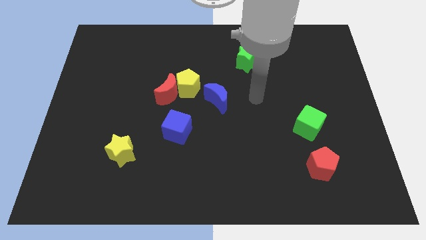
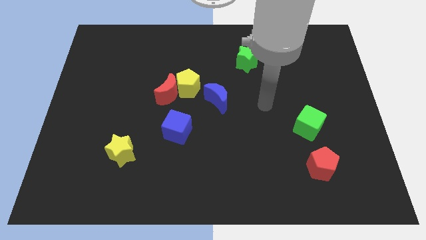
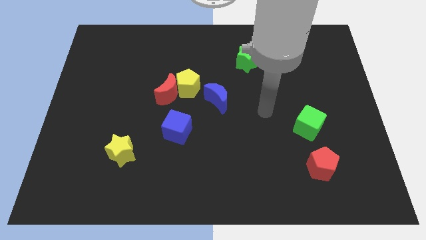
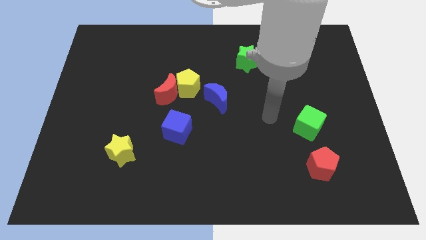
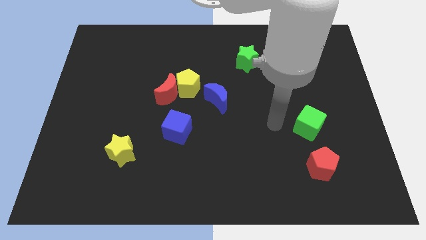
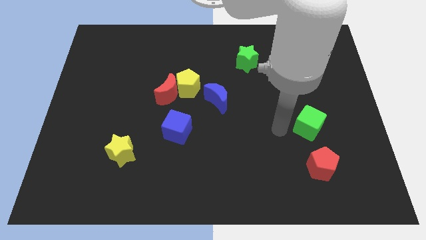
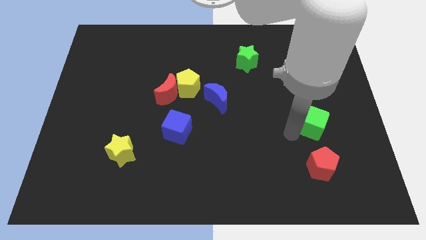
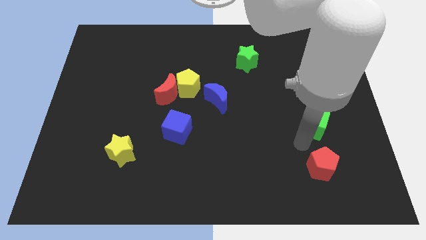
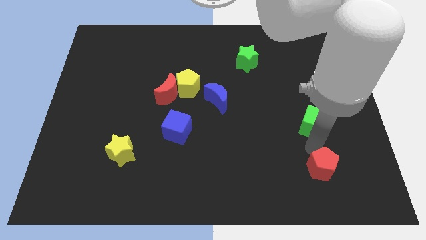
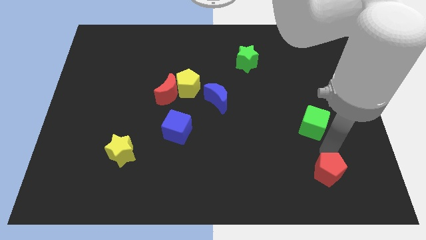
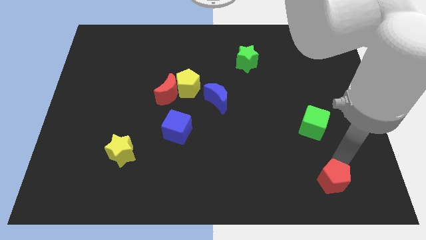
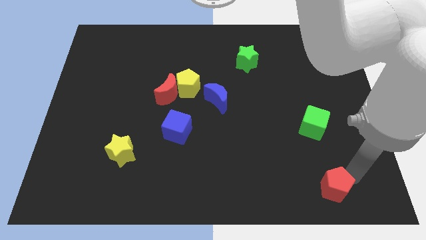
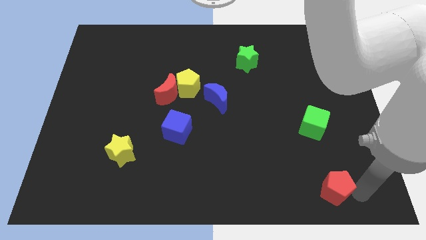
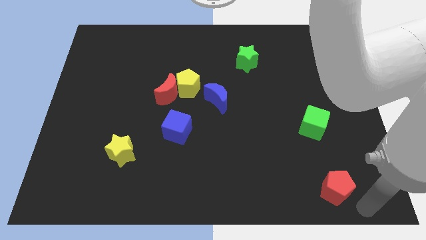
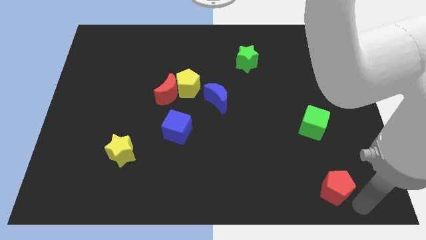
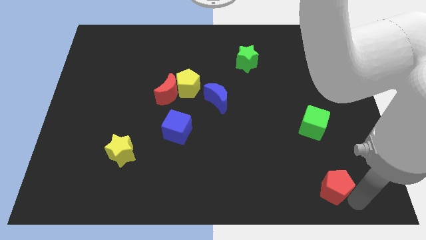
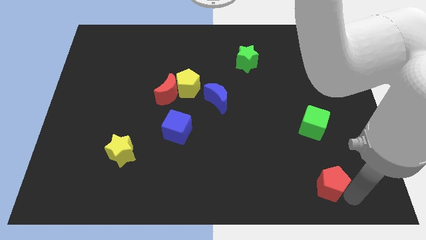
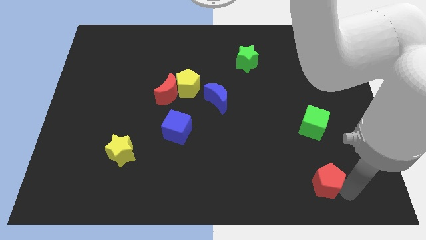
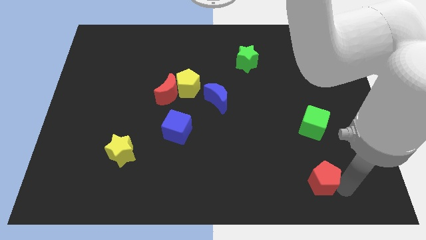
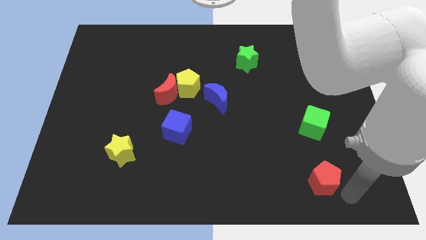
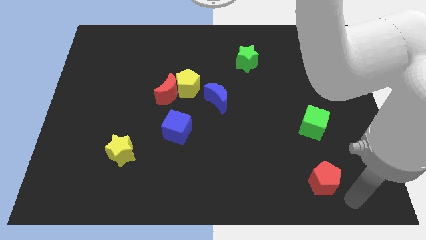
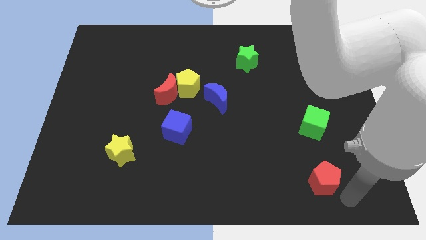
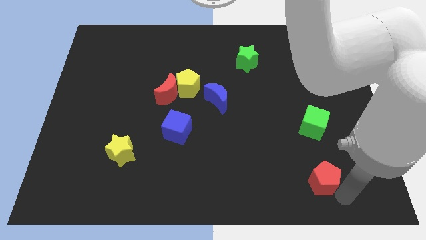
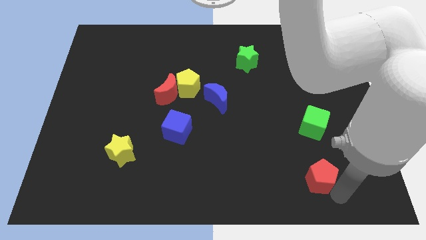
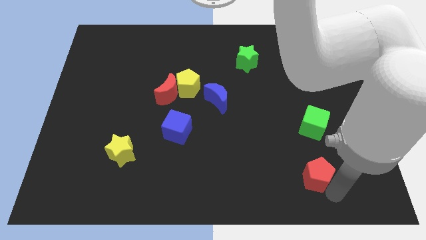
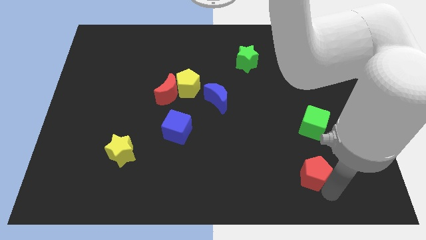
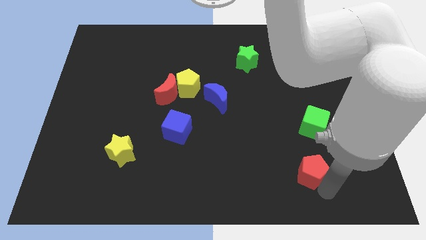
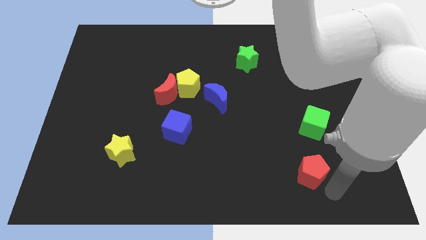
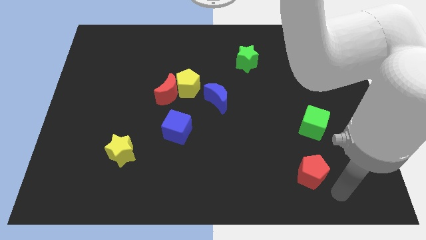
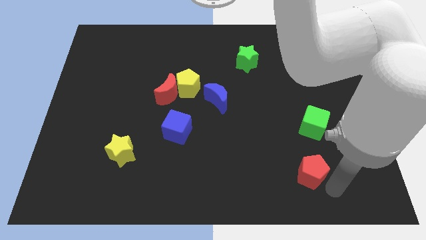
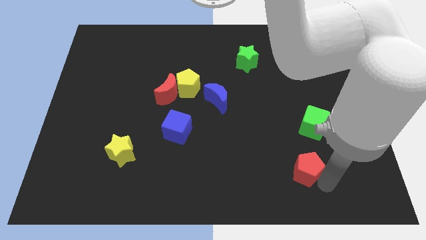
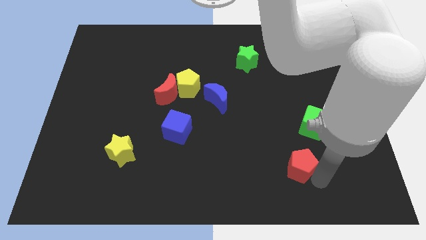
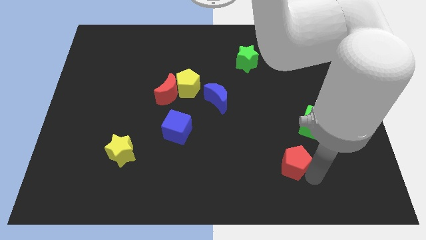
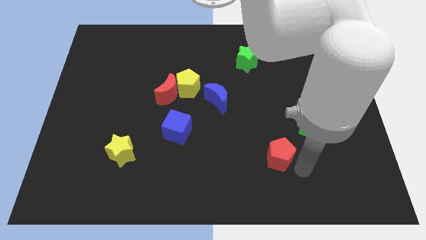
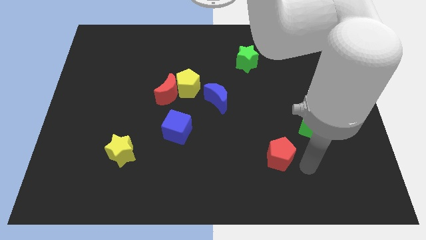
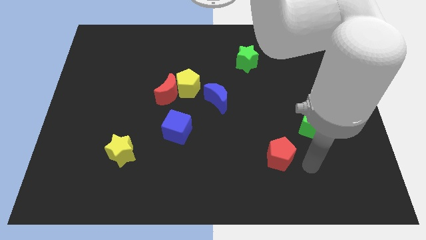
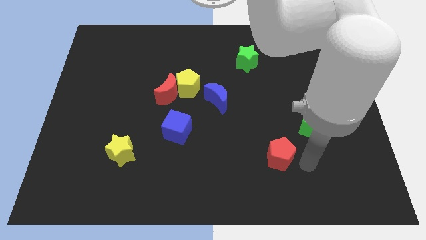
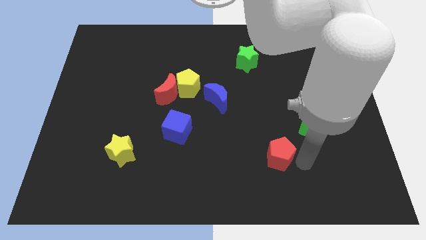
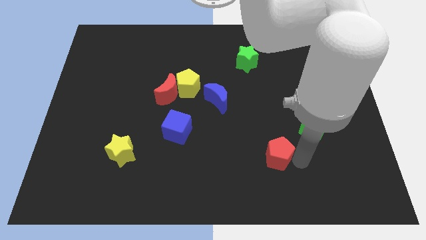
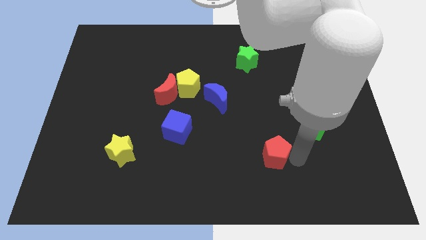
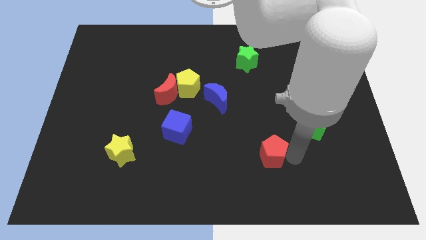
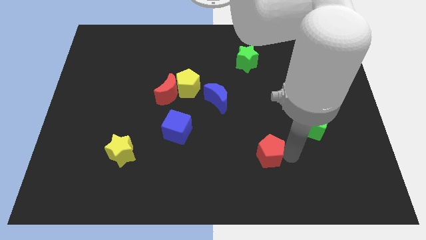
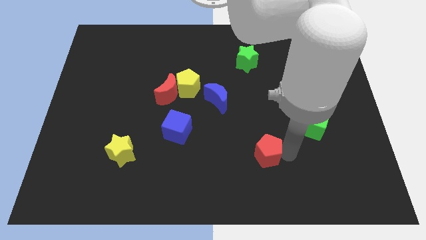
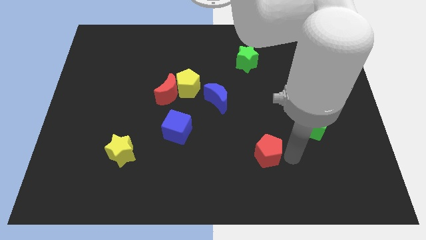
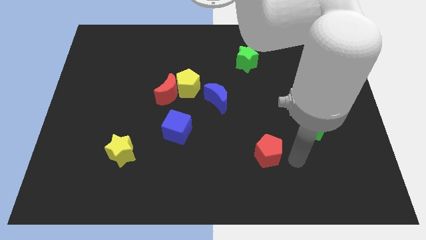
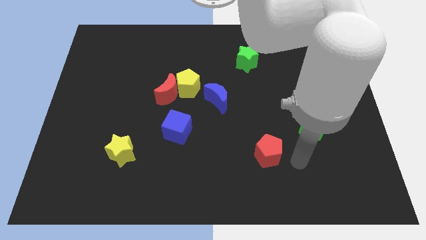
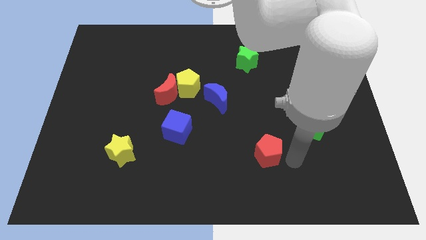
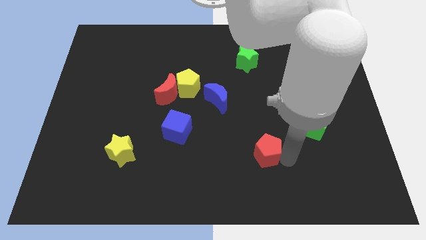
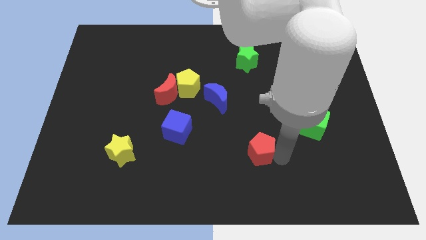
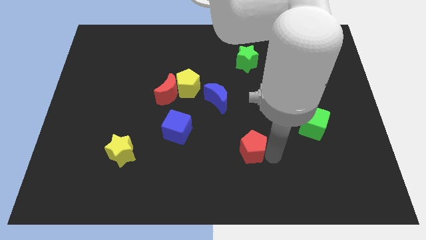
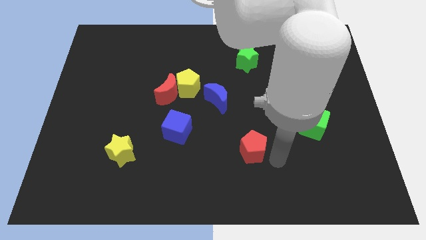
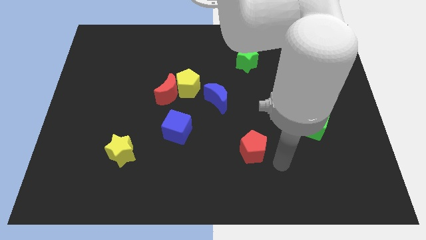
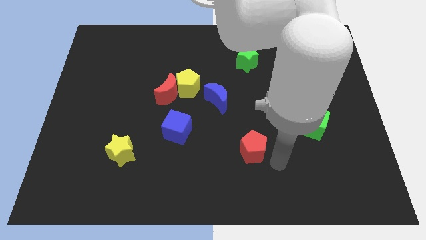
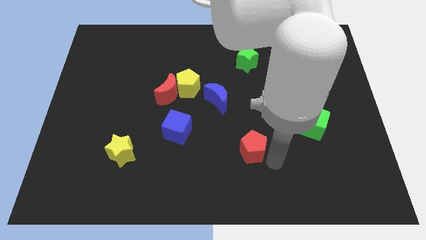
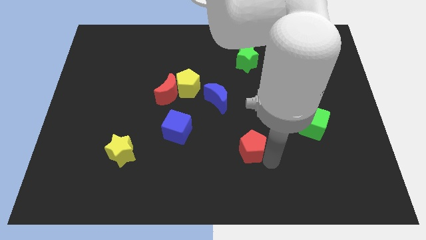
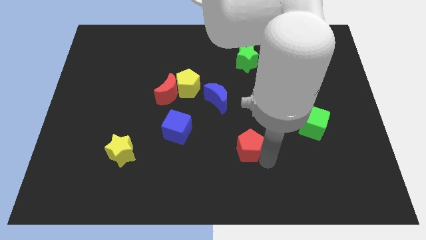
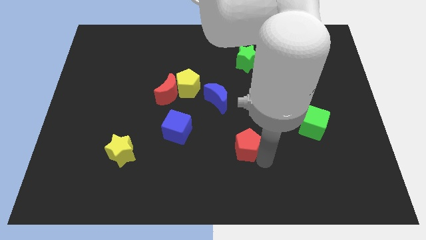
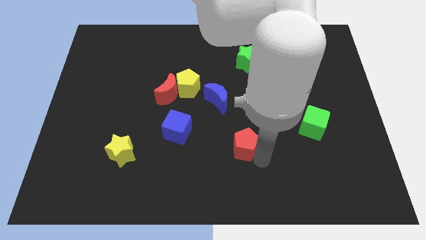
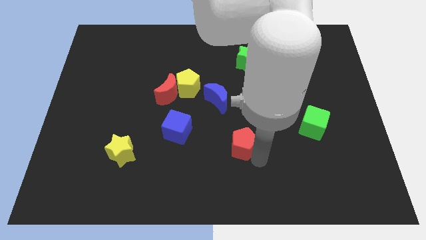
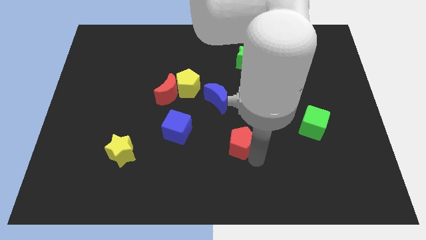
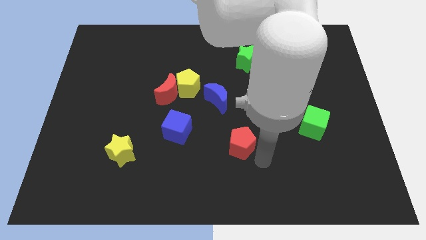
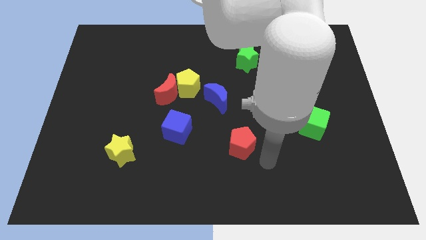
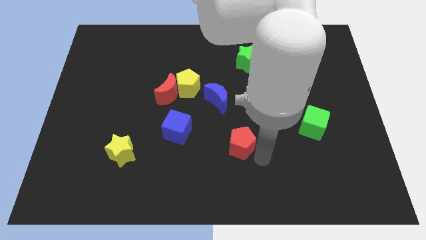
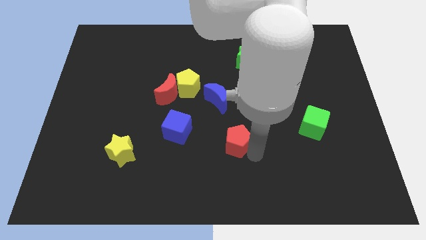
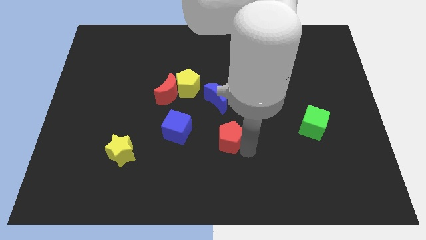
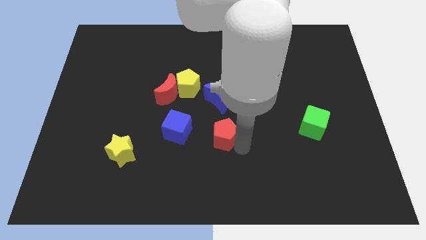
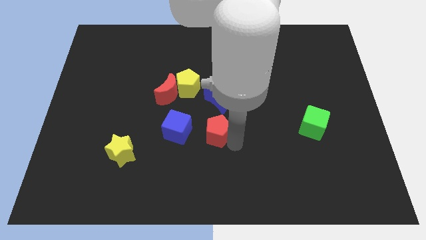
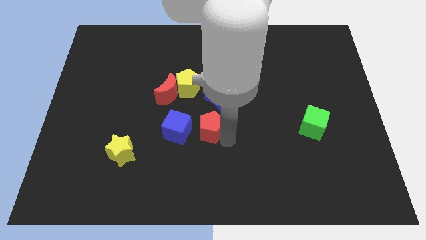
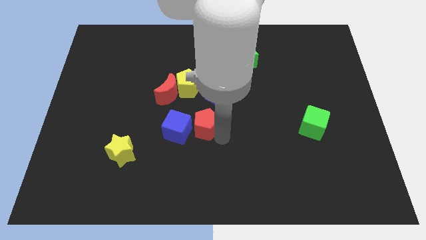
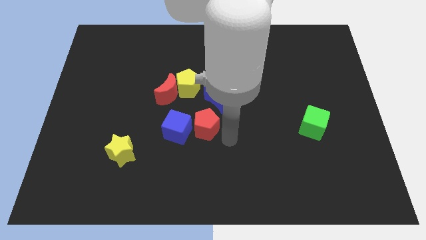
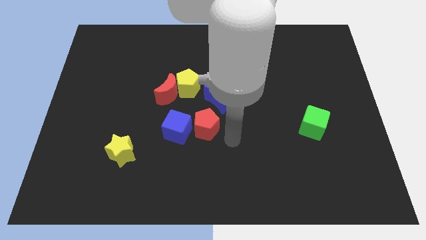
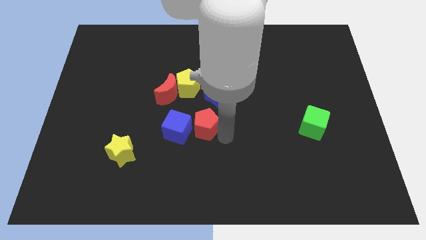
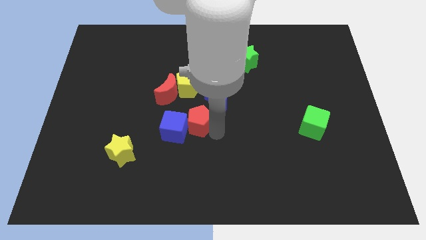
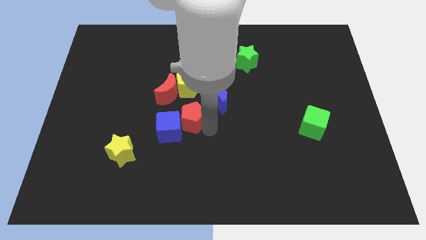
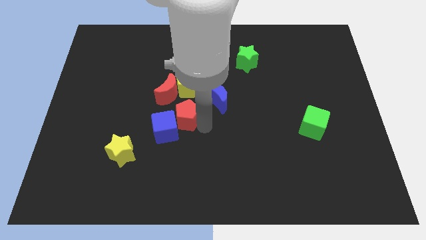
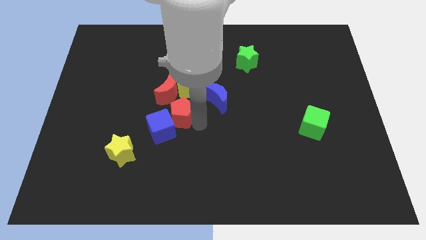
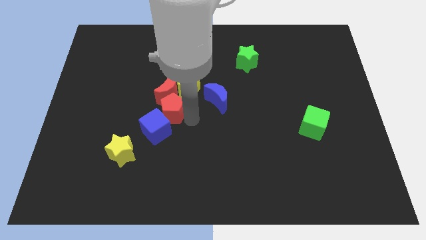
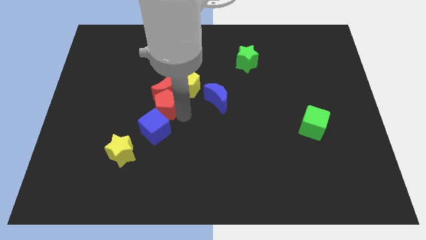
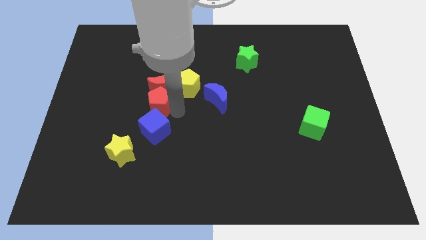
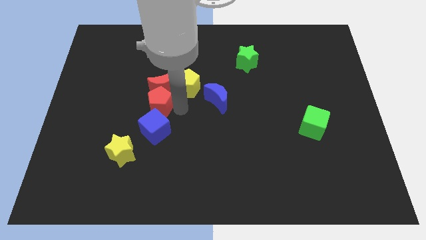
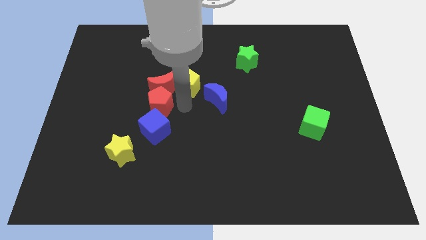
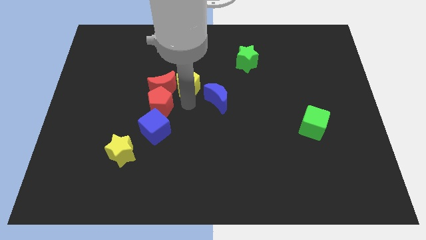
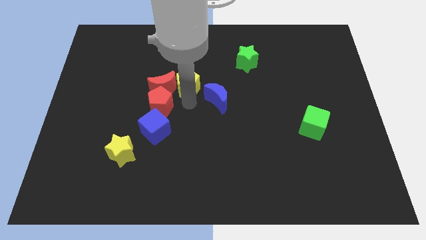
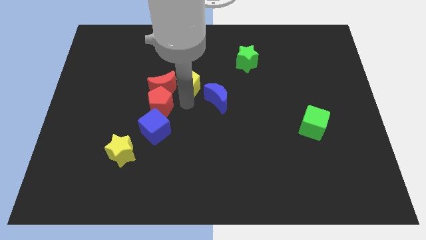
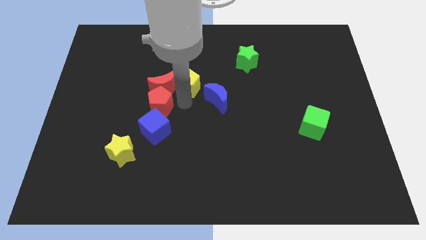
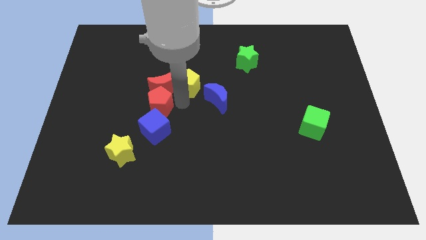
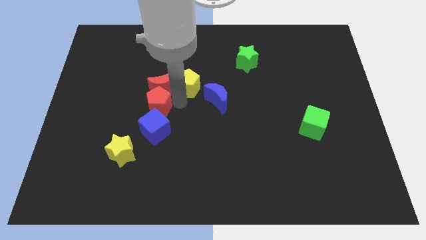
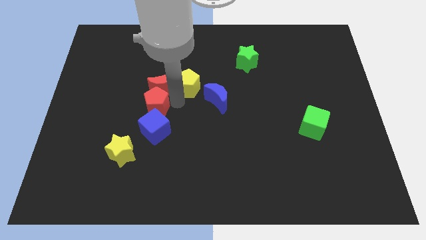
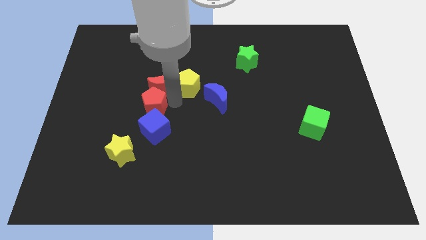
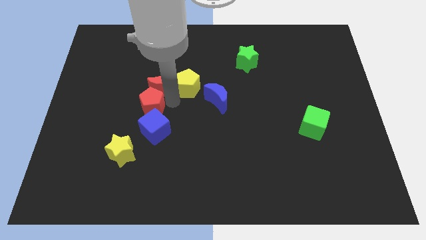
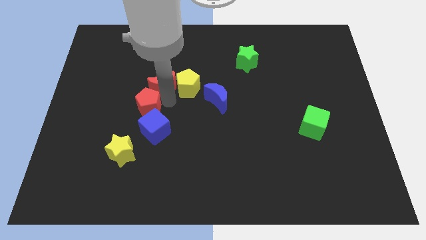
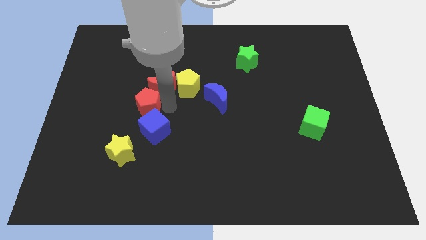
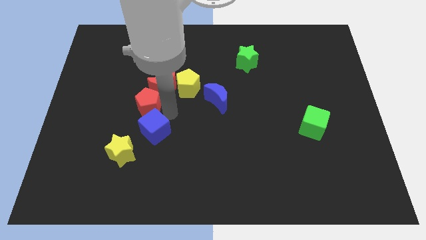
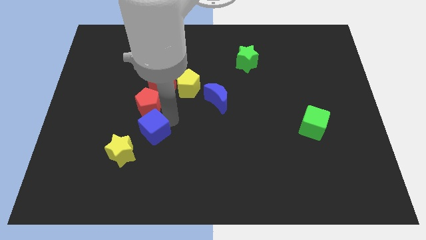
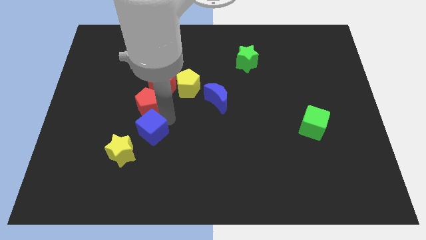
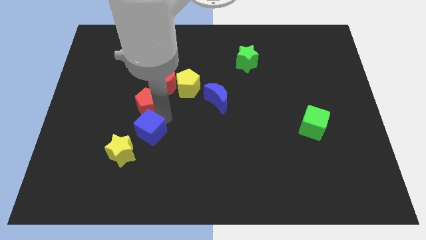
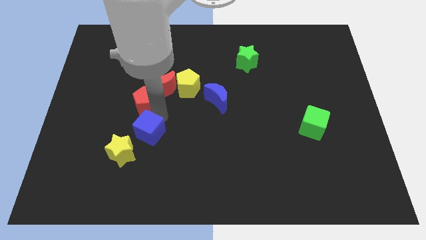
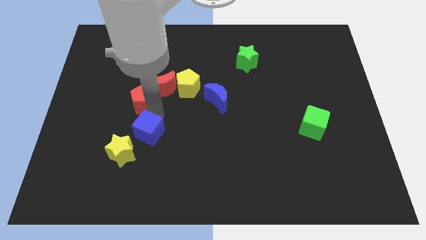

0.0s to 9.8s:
move the red pentagon to the left side of the red moon
